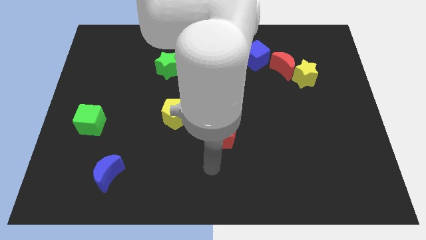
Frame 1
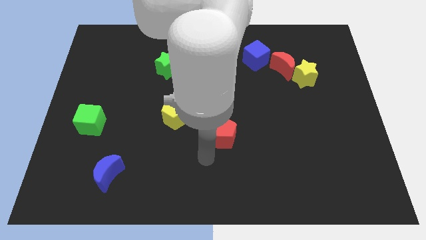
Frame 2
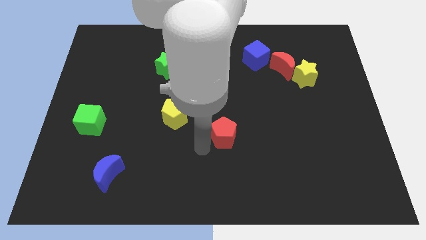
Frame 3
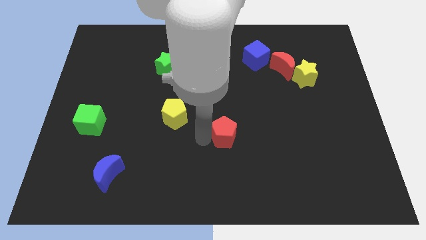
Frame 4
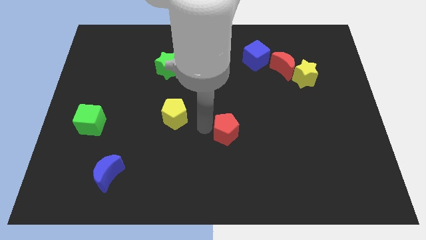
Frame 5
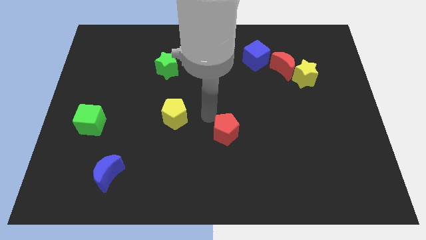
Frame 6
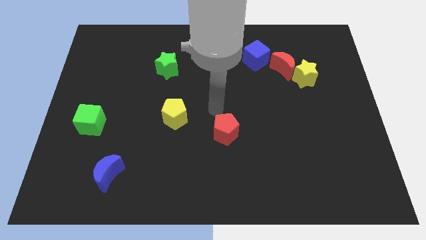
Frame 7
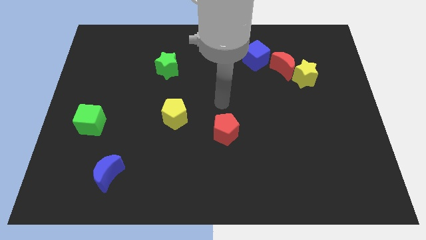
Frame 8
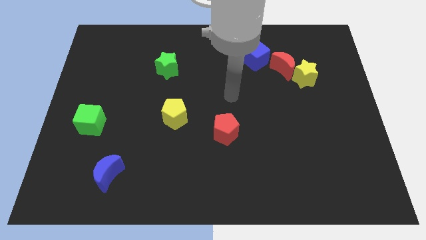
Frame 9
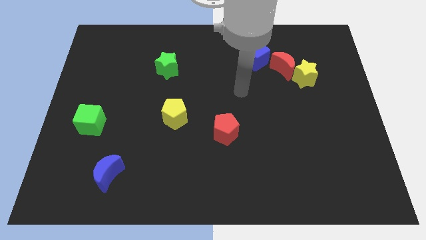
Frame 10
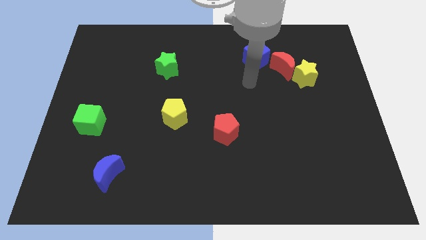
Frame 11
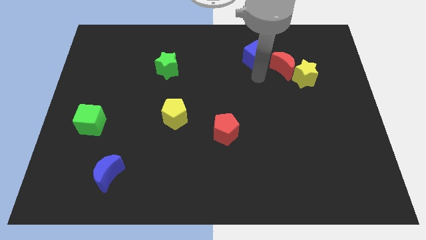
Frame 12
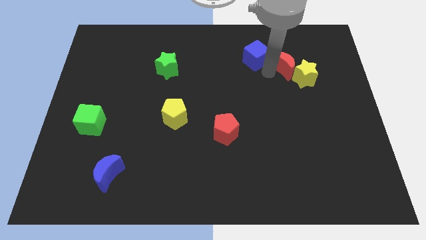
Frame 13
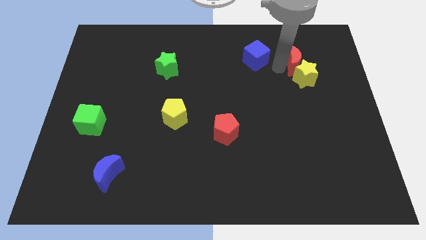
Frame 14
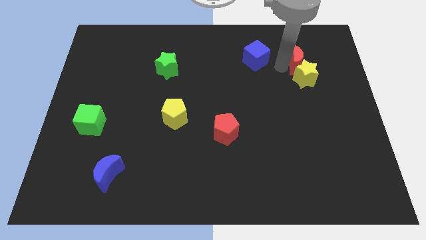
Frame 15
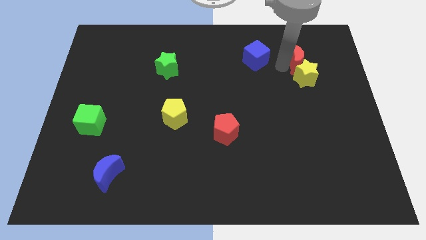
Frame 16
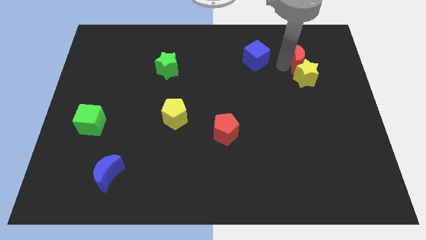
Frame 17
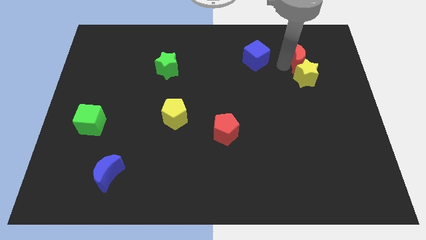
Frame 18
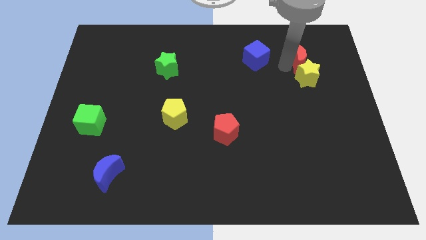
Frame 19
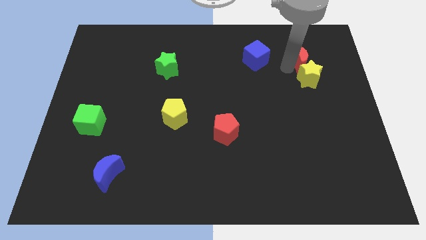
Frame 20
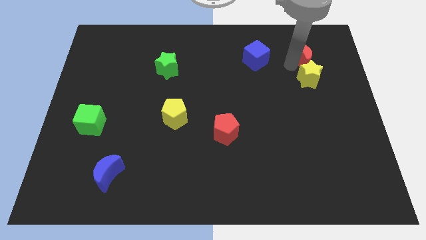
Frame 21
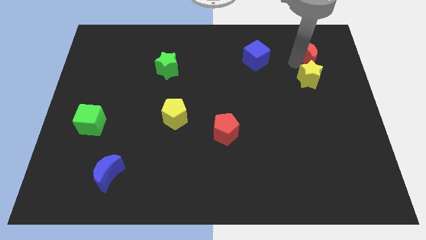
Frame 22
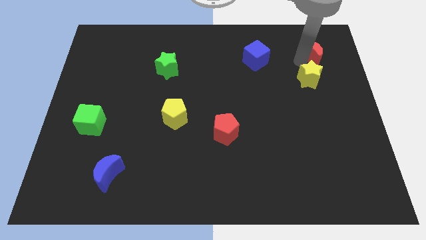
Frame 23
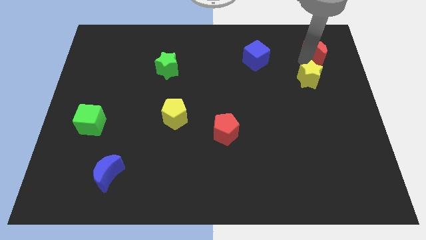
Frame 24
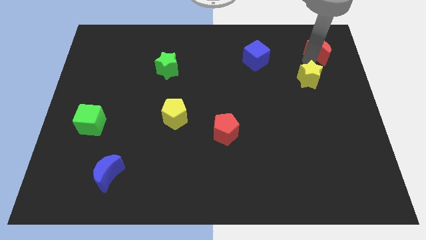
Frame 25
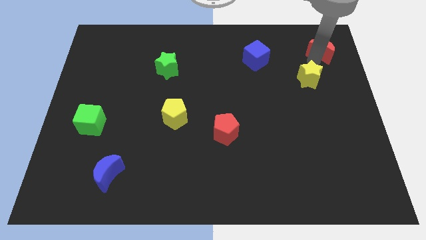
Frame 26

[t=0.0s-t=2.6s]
move the yellow star away from the red moon

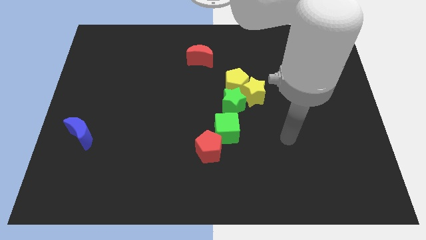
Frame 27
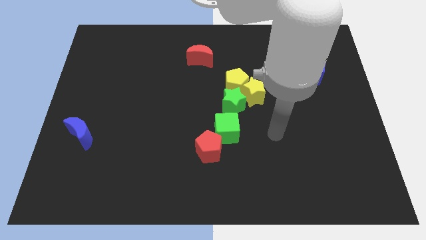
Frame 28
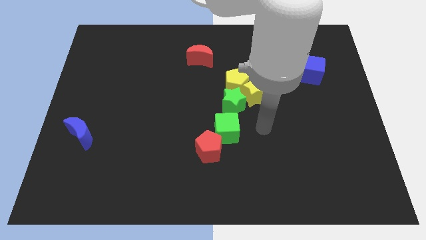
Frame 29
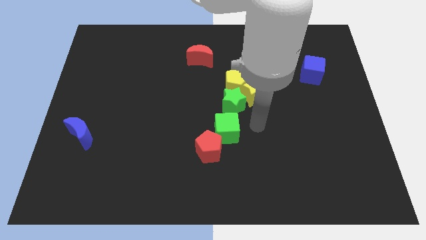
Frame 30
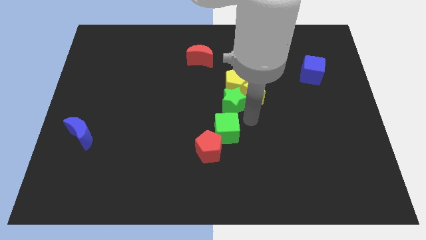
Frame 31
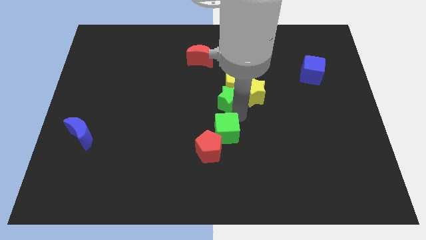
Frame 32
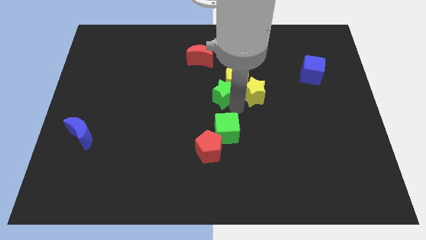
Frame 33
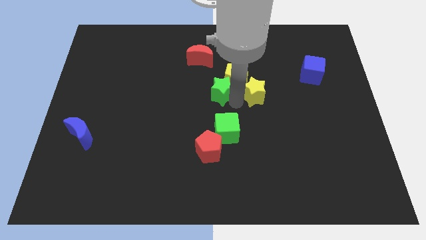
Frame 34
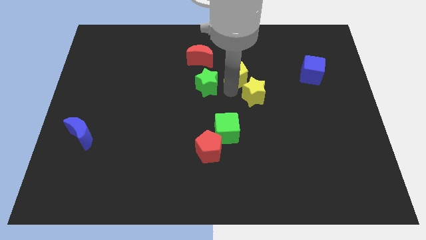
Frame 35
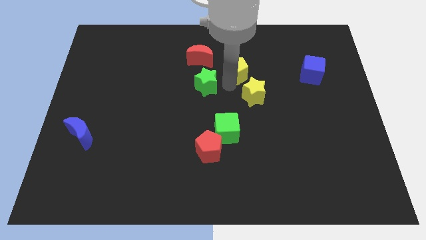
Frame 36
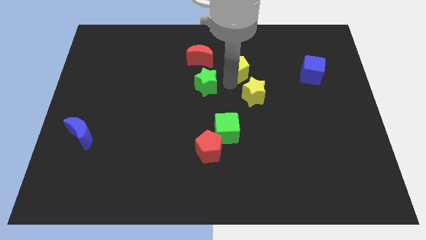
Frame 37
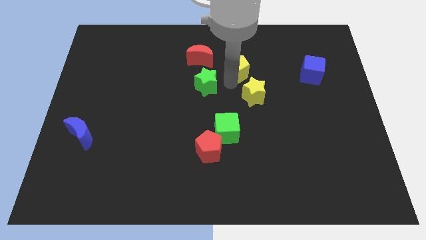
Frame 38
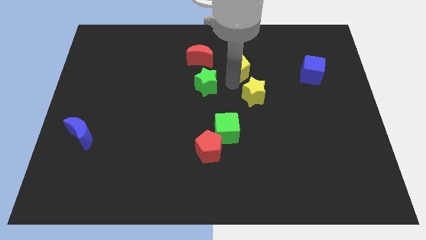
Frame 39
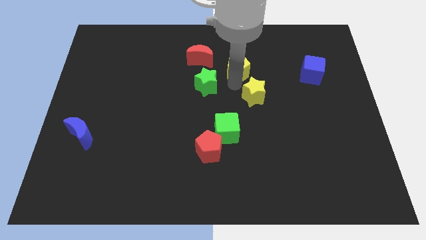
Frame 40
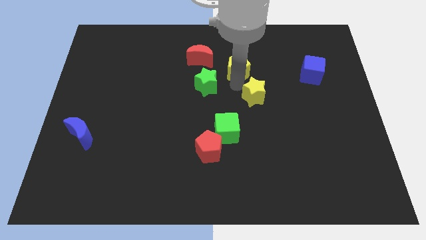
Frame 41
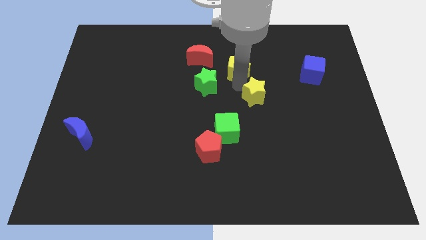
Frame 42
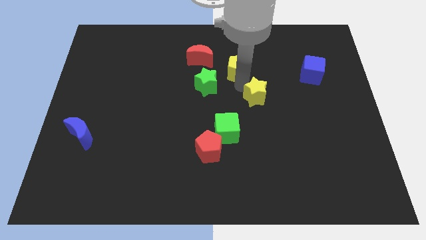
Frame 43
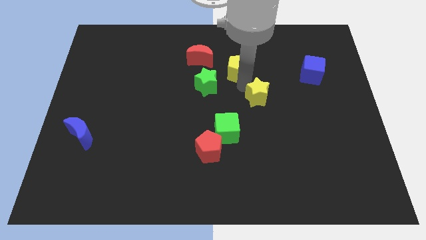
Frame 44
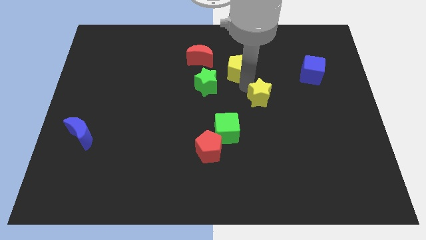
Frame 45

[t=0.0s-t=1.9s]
move the yellow star away from the yellow pentagon and green star

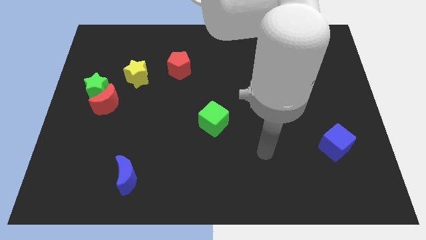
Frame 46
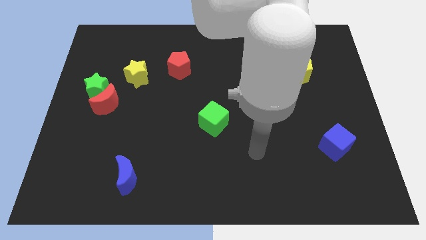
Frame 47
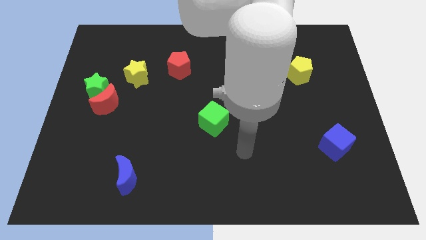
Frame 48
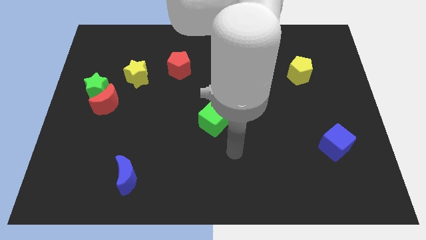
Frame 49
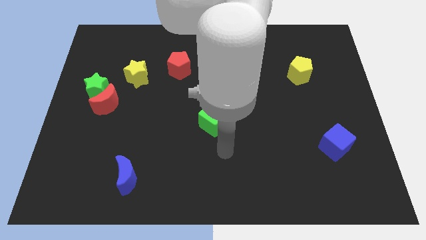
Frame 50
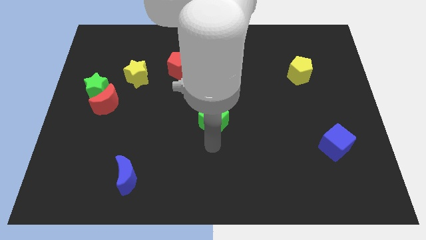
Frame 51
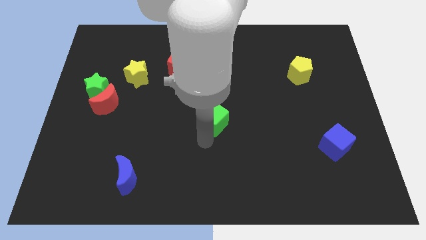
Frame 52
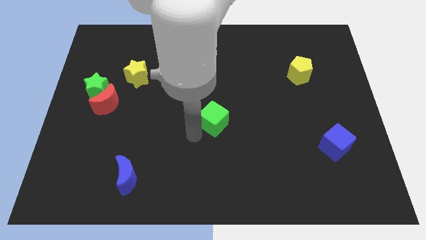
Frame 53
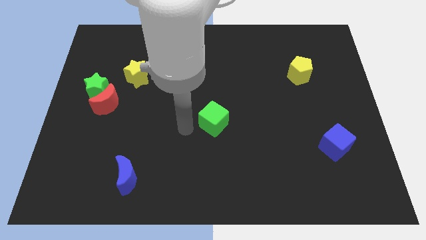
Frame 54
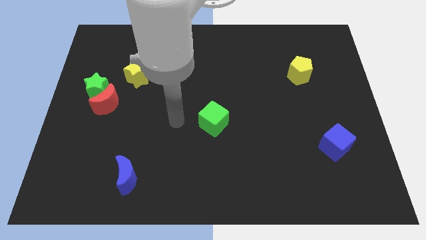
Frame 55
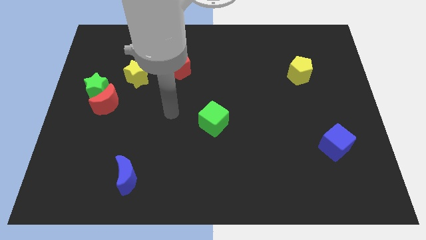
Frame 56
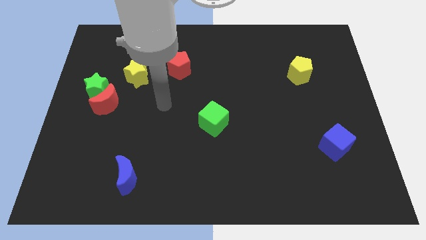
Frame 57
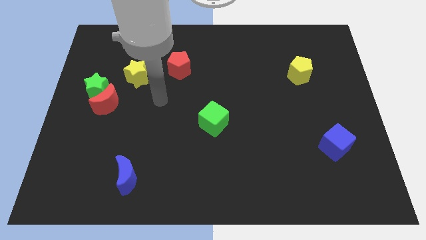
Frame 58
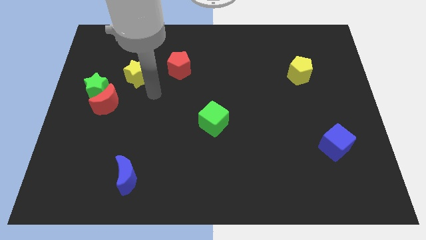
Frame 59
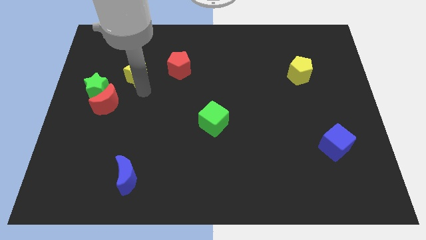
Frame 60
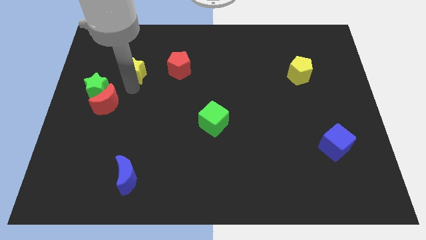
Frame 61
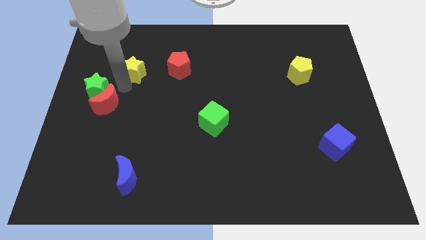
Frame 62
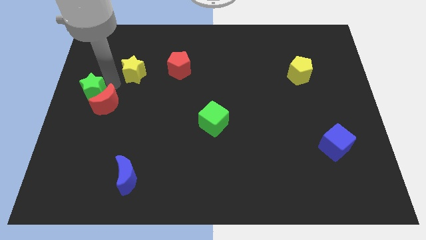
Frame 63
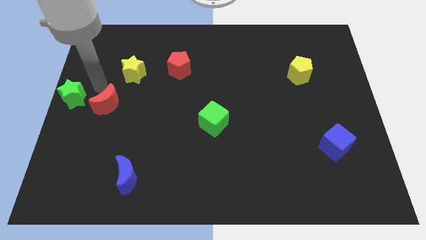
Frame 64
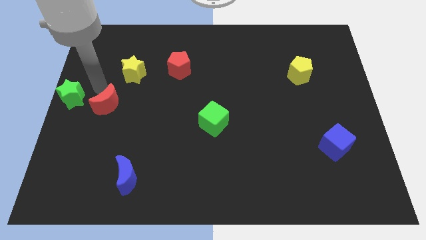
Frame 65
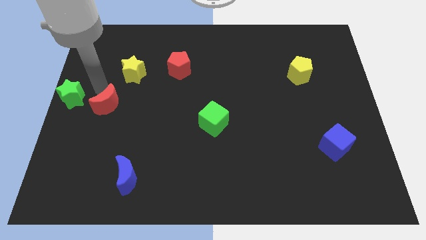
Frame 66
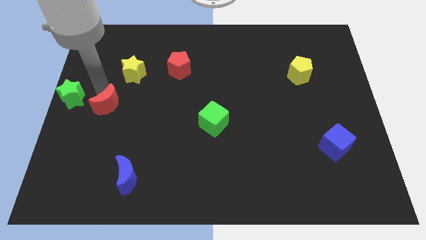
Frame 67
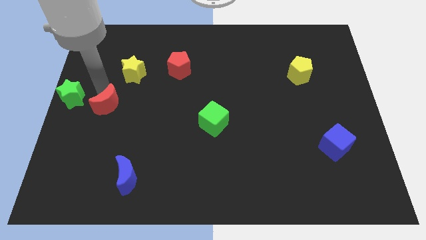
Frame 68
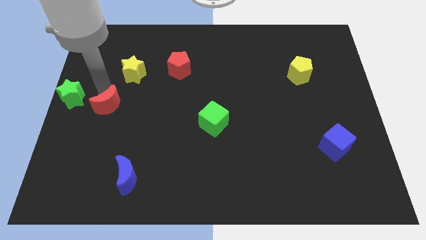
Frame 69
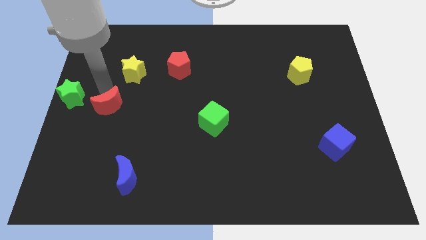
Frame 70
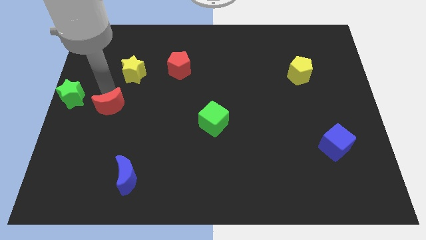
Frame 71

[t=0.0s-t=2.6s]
separate the red moon from the green star

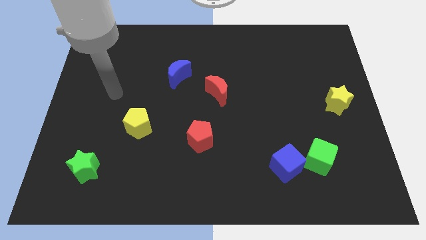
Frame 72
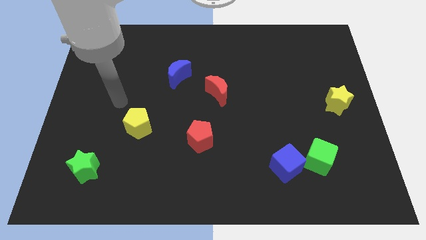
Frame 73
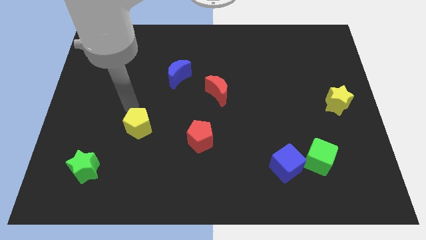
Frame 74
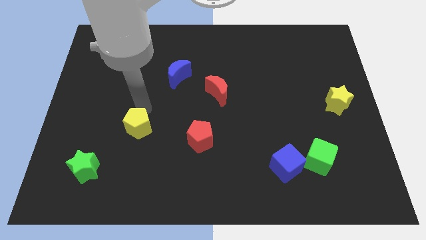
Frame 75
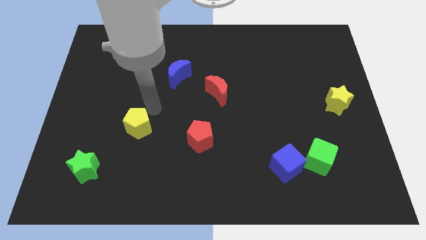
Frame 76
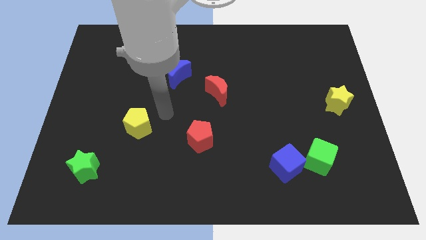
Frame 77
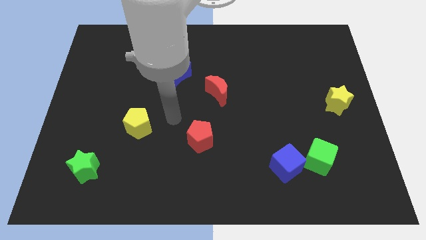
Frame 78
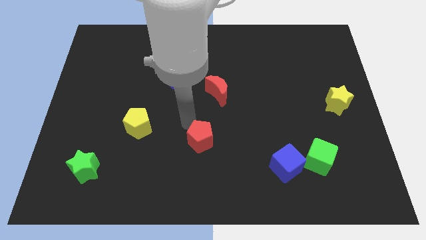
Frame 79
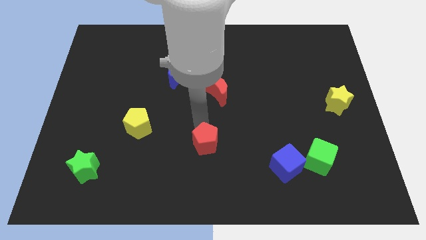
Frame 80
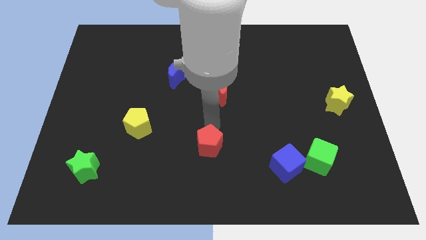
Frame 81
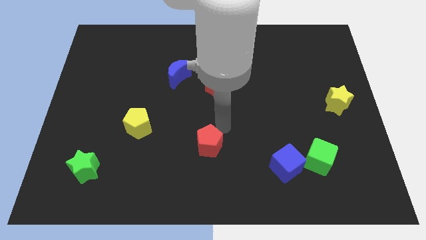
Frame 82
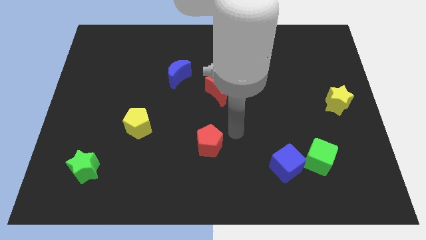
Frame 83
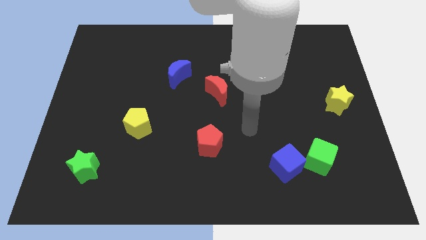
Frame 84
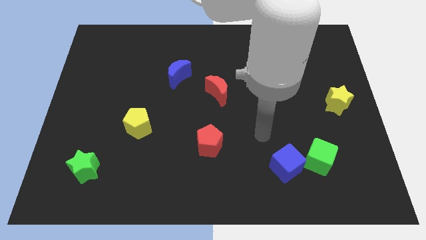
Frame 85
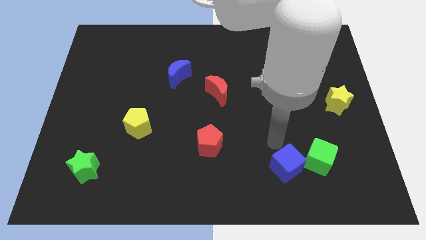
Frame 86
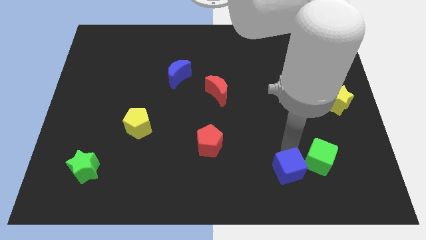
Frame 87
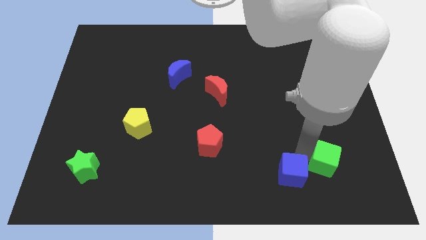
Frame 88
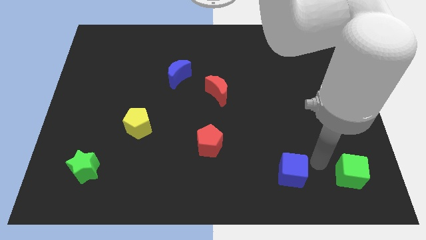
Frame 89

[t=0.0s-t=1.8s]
separate the blue cube from the green cube

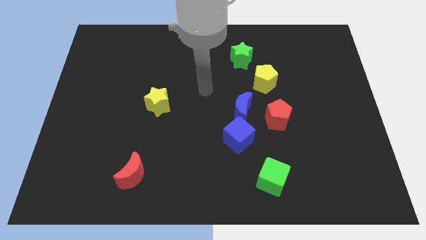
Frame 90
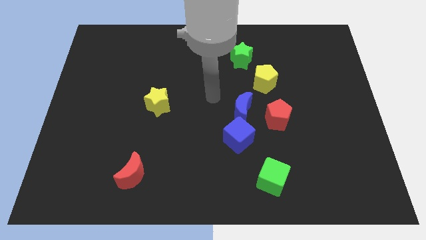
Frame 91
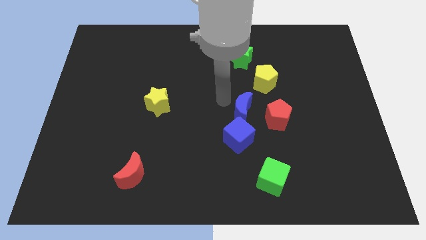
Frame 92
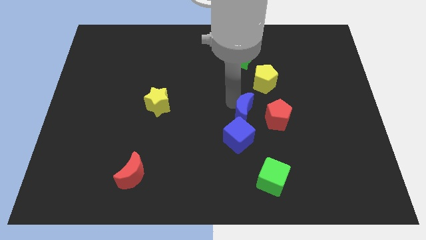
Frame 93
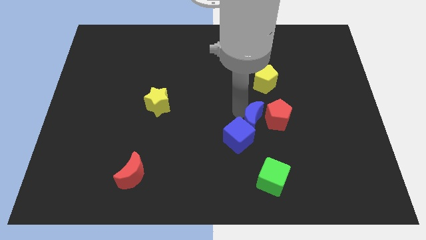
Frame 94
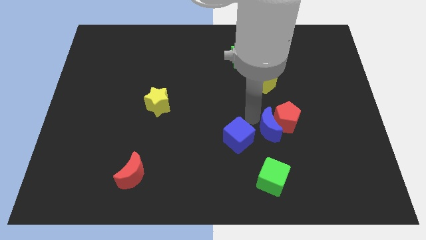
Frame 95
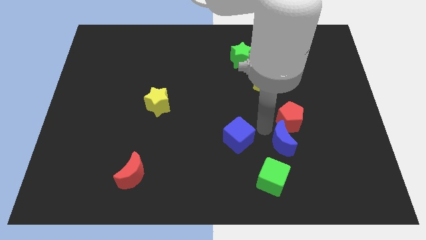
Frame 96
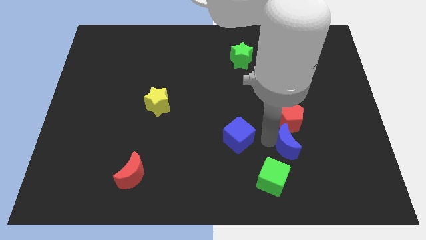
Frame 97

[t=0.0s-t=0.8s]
separate the blue cube from the blue moon
